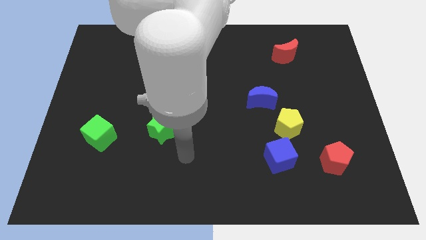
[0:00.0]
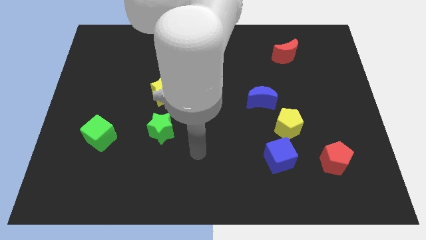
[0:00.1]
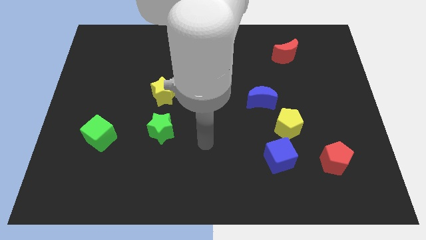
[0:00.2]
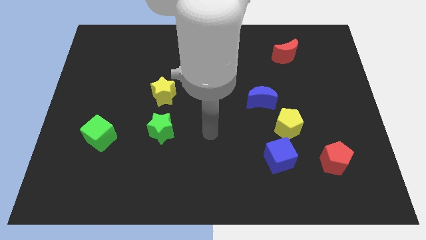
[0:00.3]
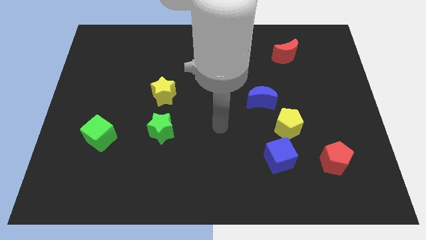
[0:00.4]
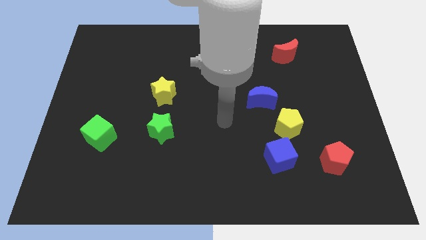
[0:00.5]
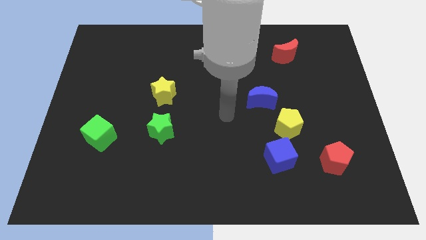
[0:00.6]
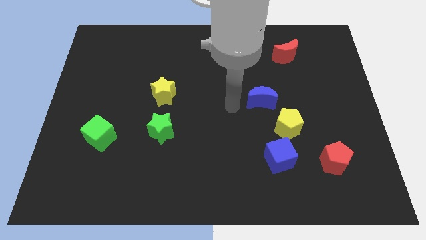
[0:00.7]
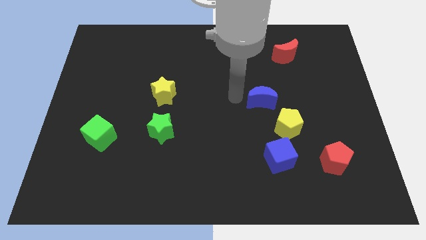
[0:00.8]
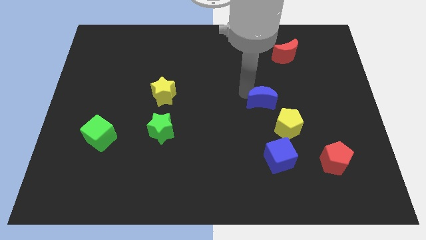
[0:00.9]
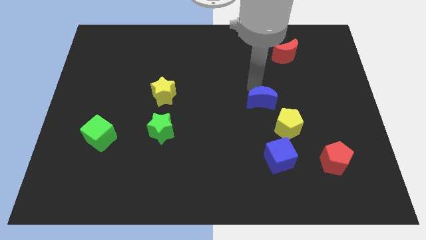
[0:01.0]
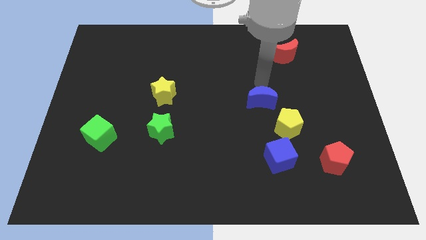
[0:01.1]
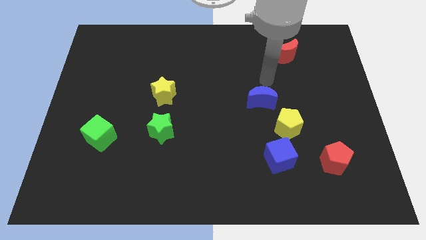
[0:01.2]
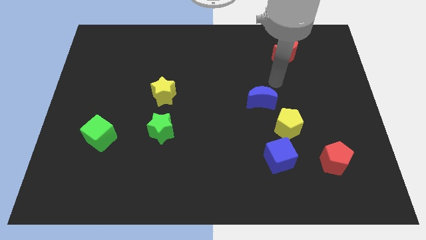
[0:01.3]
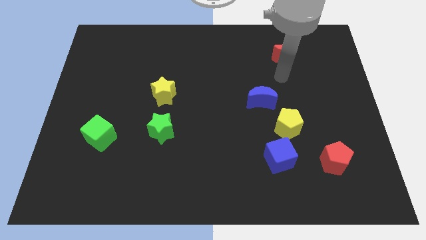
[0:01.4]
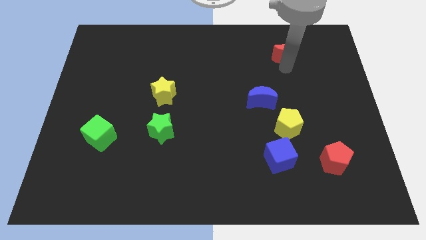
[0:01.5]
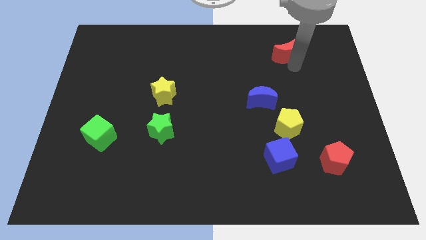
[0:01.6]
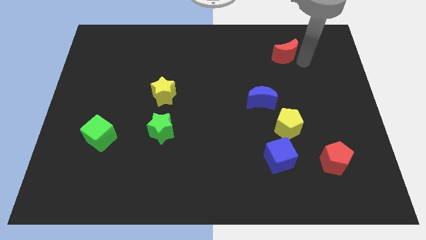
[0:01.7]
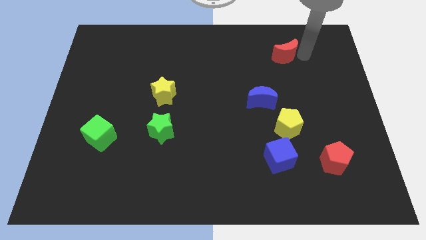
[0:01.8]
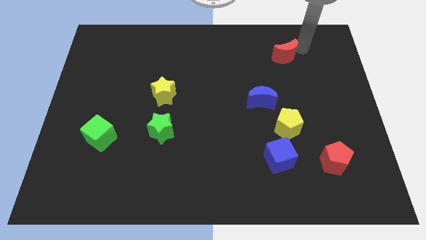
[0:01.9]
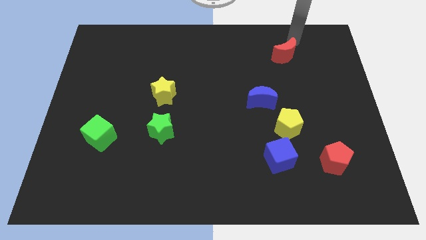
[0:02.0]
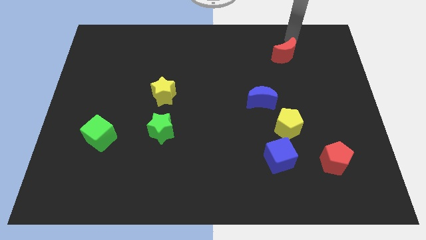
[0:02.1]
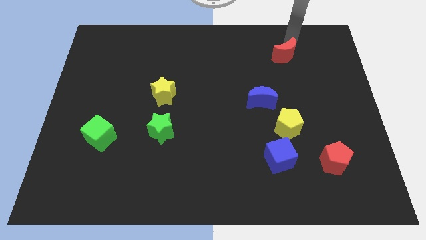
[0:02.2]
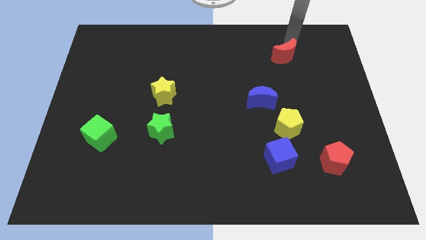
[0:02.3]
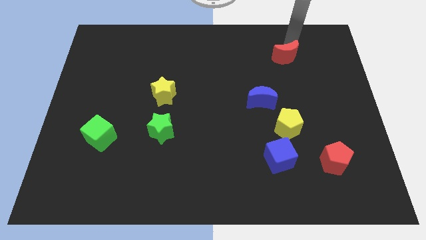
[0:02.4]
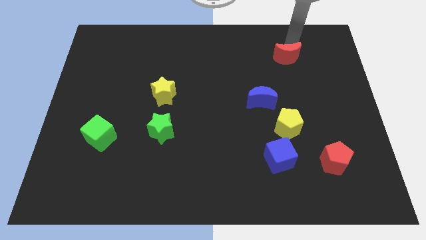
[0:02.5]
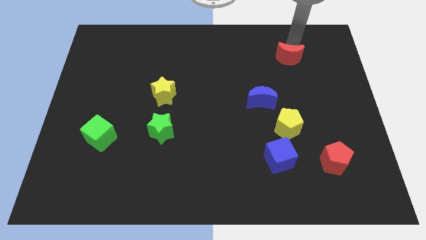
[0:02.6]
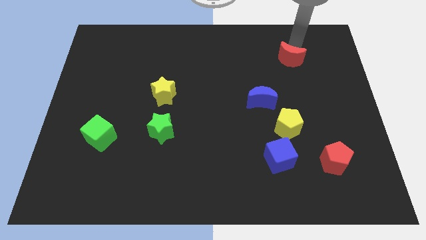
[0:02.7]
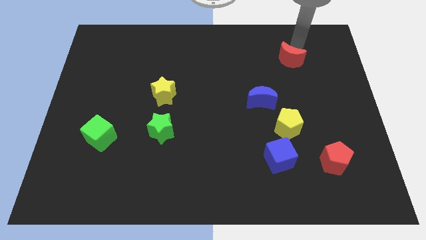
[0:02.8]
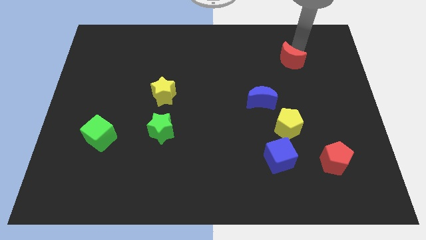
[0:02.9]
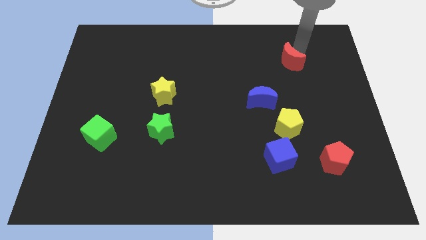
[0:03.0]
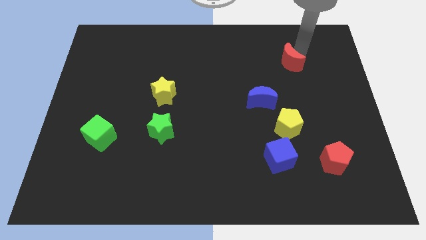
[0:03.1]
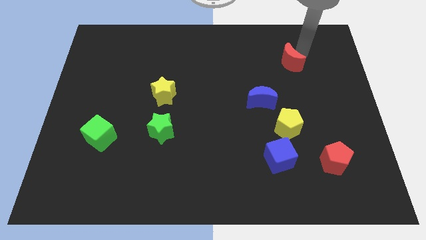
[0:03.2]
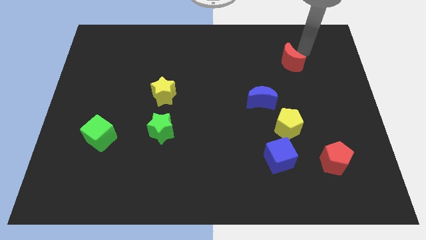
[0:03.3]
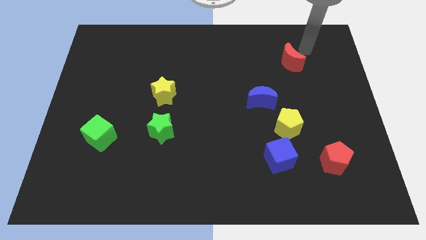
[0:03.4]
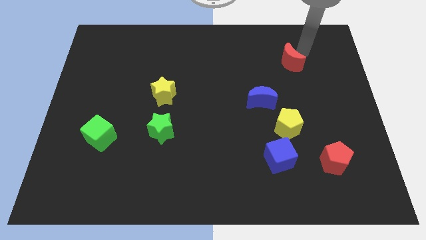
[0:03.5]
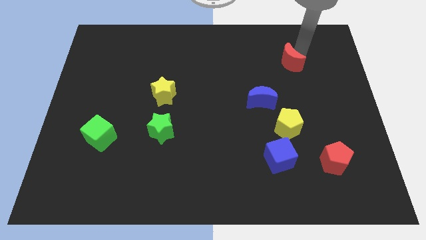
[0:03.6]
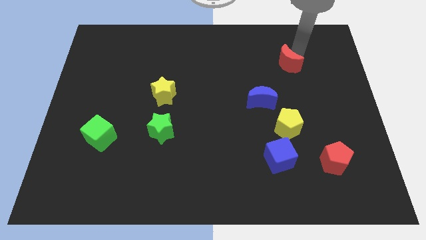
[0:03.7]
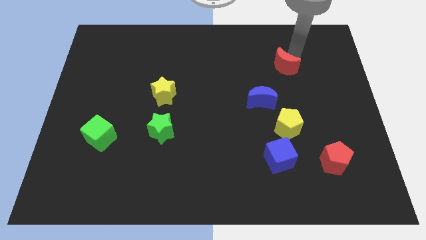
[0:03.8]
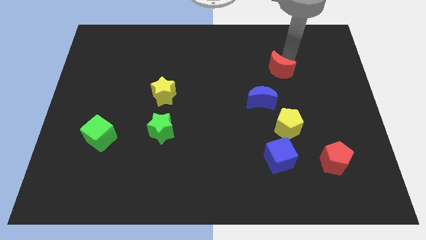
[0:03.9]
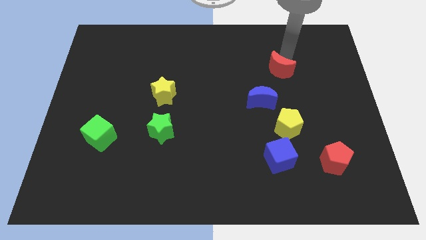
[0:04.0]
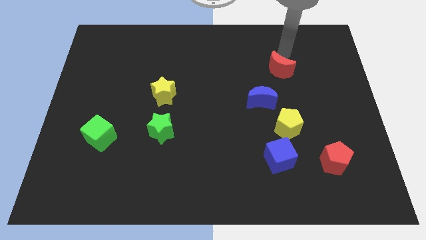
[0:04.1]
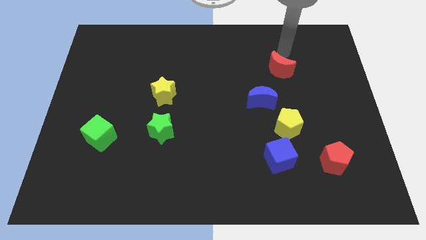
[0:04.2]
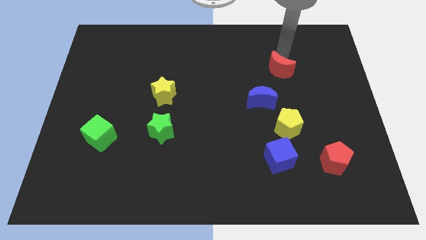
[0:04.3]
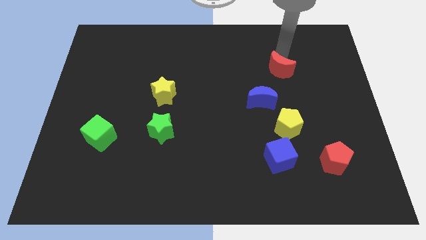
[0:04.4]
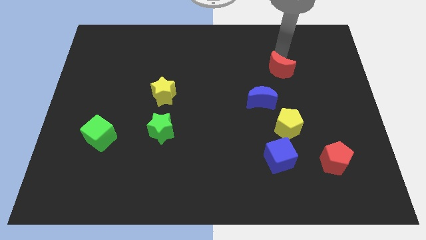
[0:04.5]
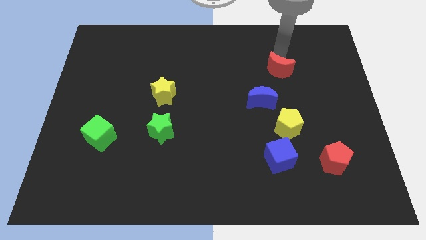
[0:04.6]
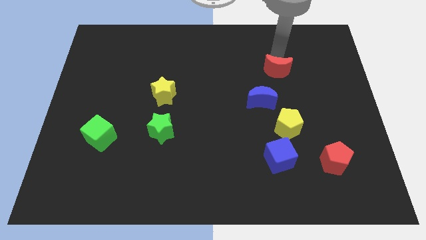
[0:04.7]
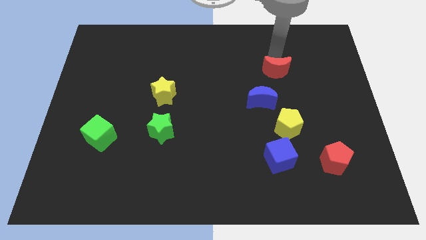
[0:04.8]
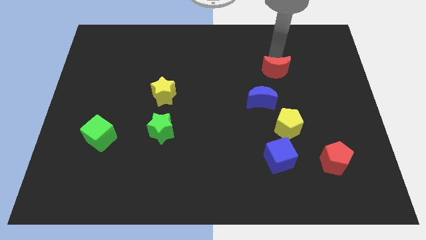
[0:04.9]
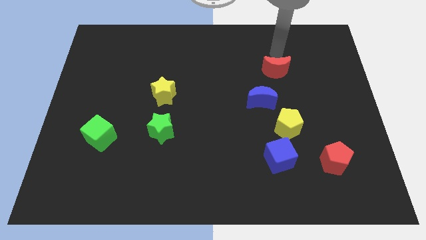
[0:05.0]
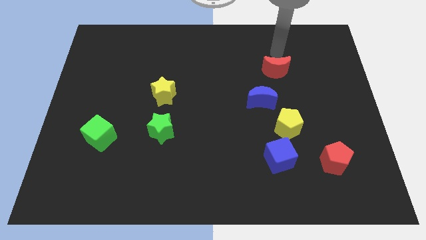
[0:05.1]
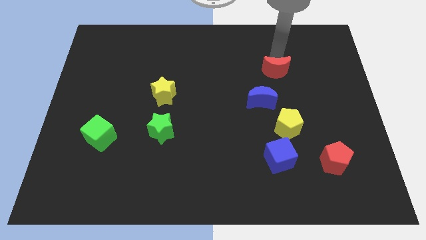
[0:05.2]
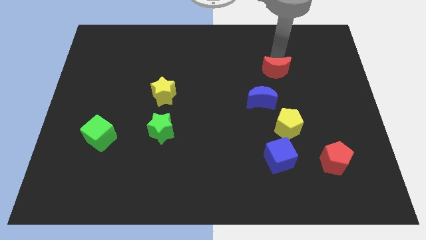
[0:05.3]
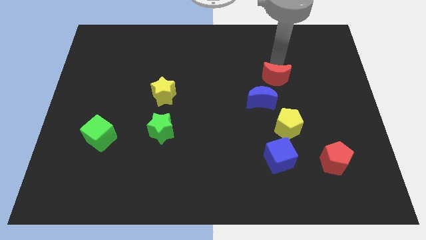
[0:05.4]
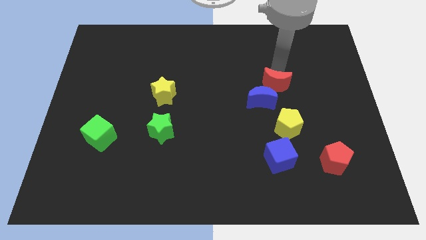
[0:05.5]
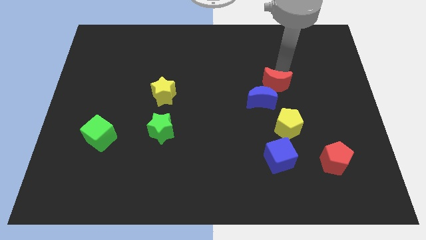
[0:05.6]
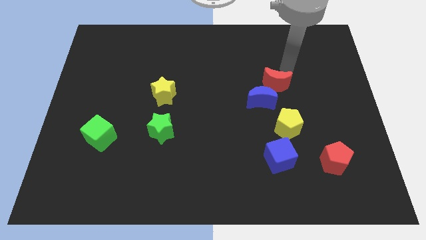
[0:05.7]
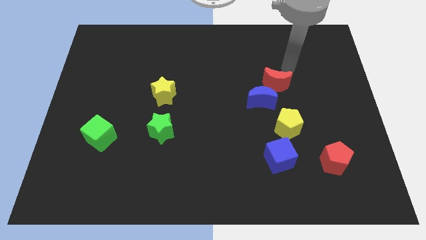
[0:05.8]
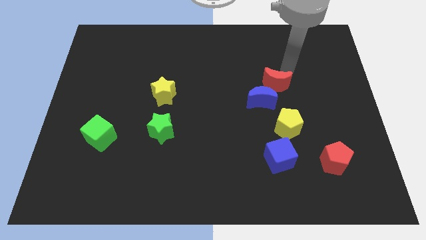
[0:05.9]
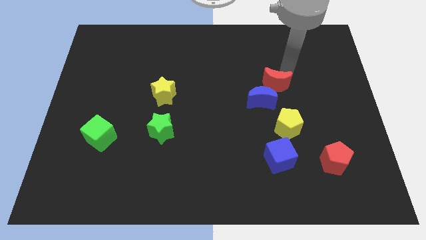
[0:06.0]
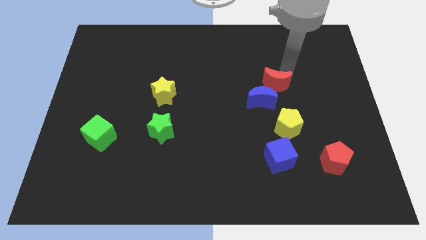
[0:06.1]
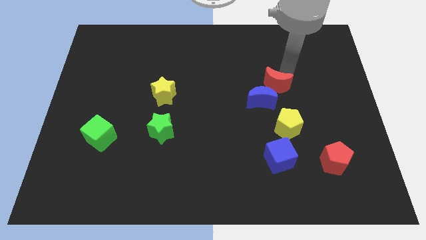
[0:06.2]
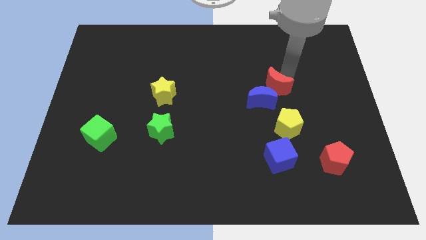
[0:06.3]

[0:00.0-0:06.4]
slide the red moon to the blue moon
